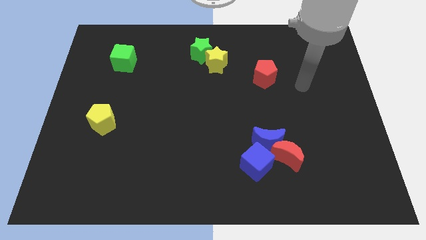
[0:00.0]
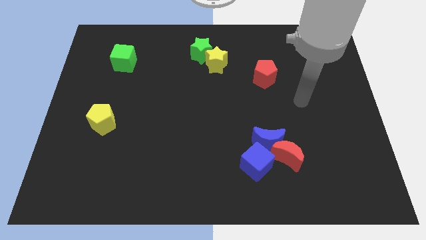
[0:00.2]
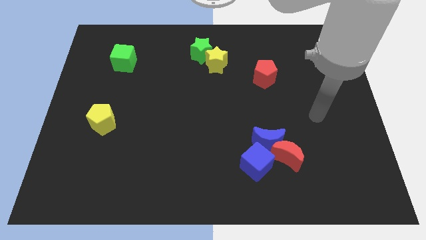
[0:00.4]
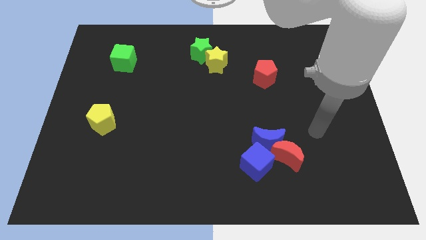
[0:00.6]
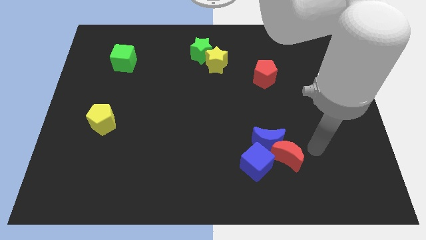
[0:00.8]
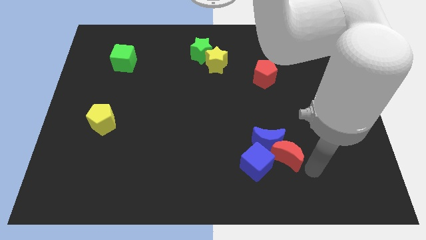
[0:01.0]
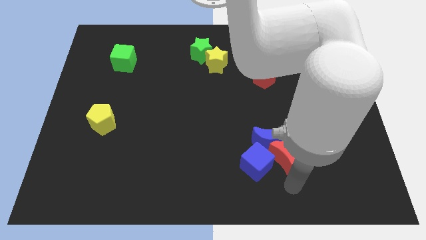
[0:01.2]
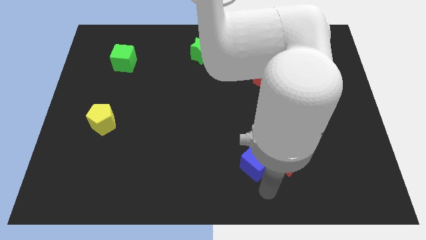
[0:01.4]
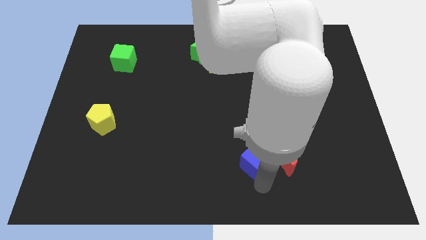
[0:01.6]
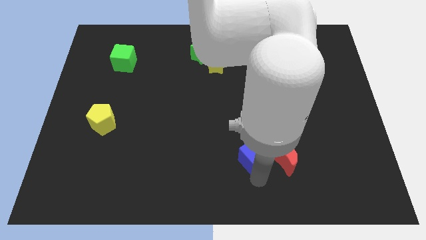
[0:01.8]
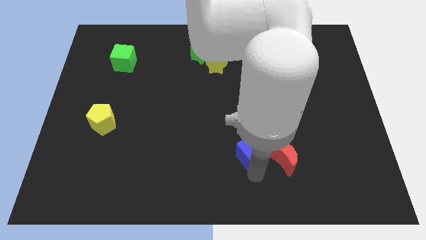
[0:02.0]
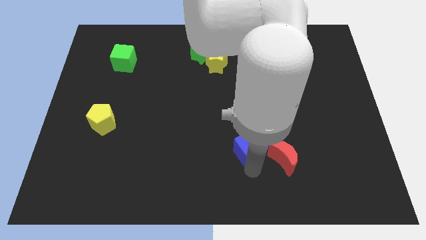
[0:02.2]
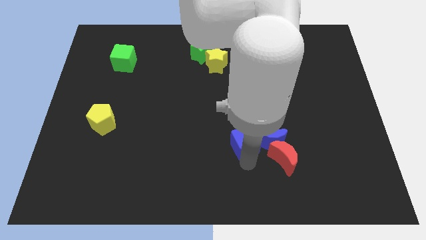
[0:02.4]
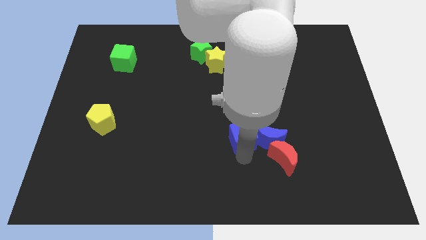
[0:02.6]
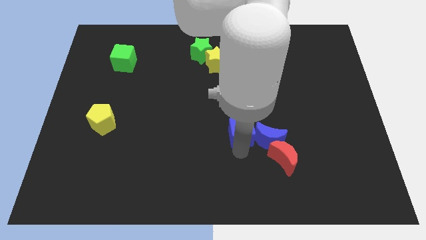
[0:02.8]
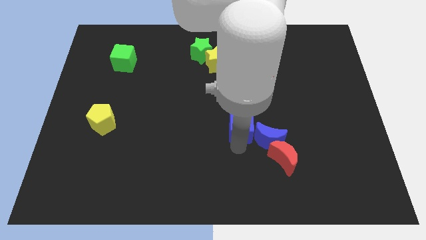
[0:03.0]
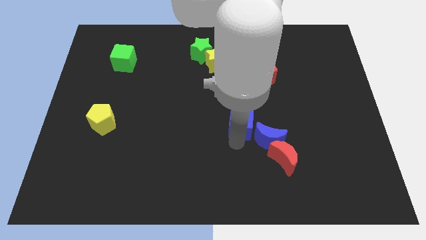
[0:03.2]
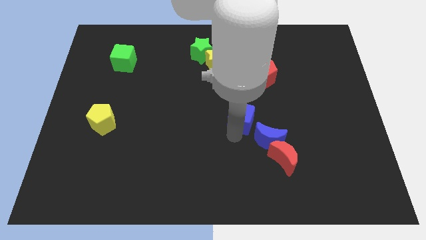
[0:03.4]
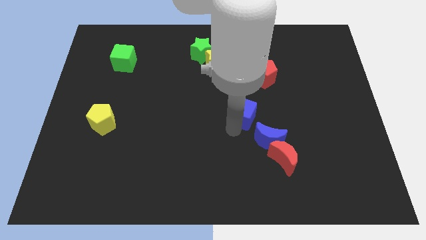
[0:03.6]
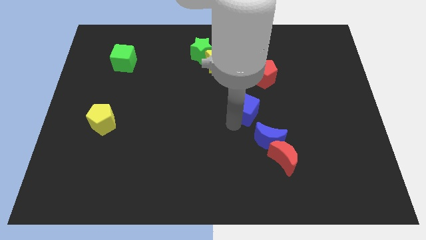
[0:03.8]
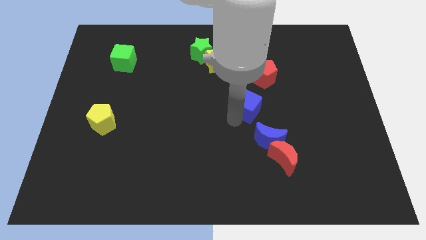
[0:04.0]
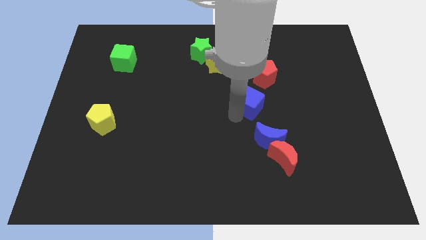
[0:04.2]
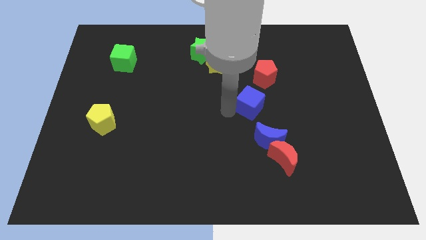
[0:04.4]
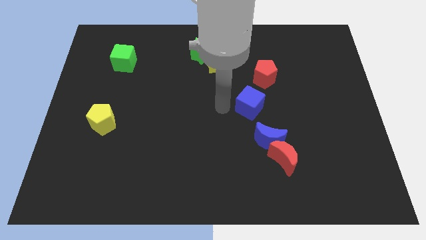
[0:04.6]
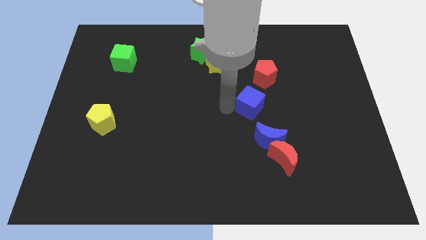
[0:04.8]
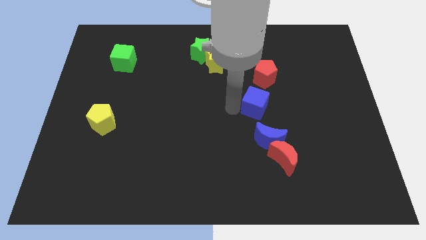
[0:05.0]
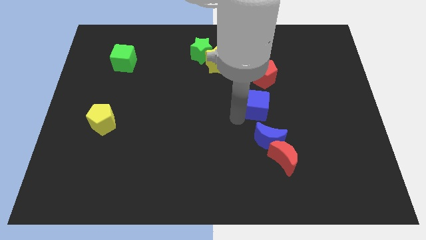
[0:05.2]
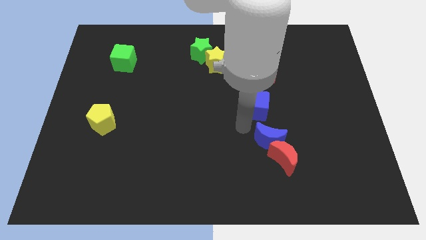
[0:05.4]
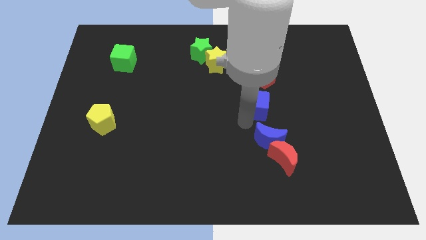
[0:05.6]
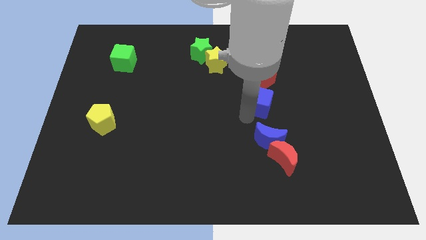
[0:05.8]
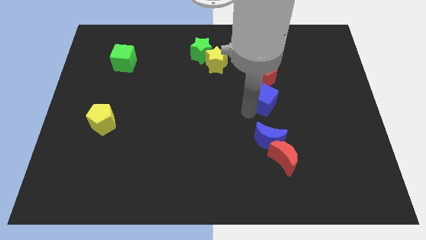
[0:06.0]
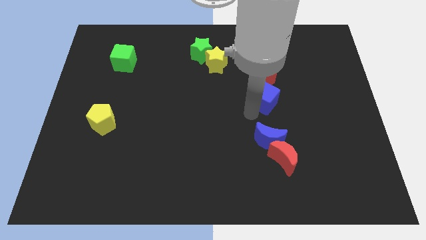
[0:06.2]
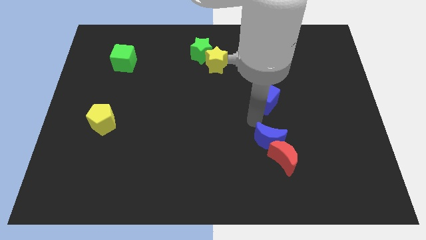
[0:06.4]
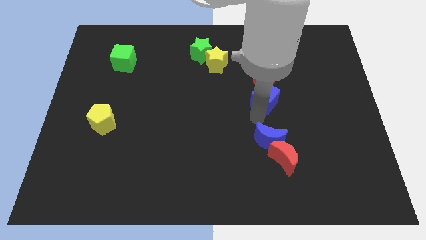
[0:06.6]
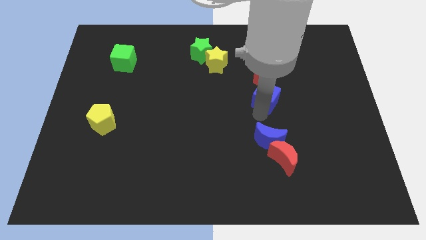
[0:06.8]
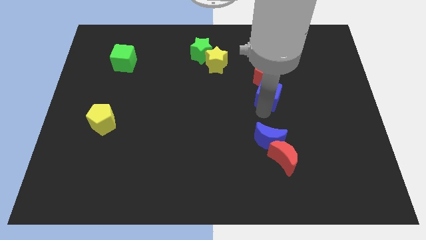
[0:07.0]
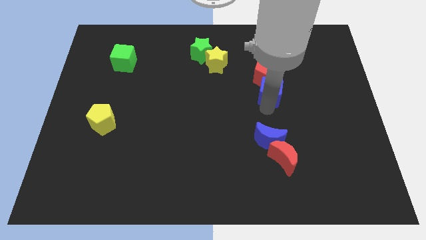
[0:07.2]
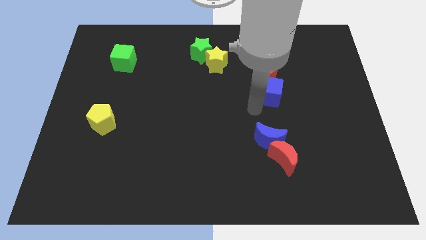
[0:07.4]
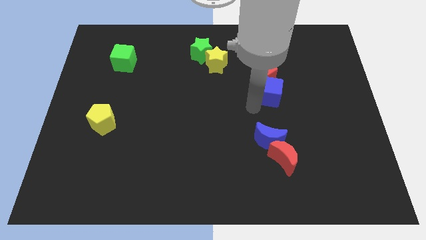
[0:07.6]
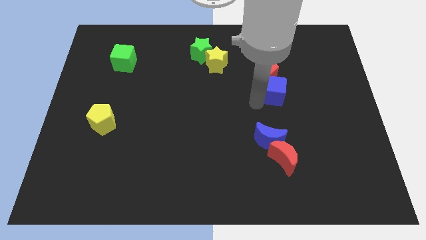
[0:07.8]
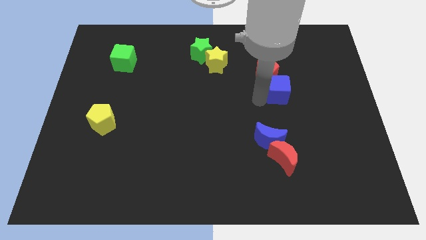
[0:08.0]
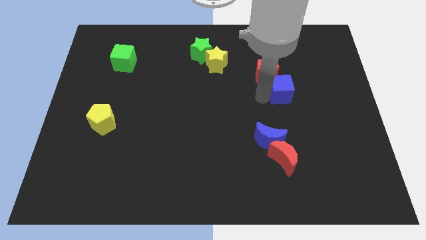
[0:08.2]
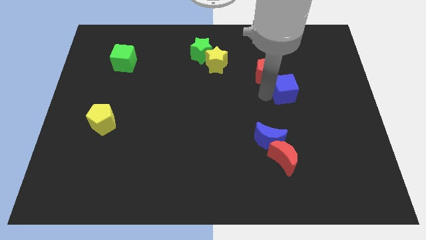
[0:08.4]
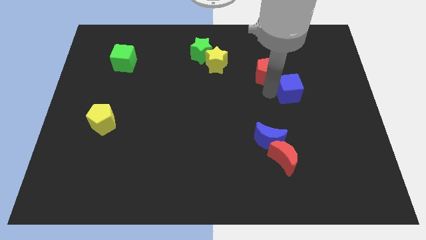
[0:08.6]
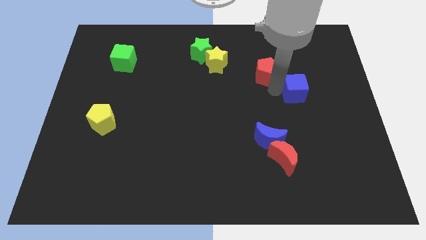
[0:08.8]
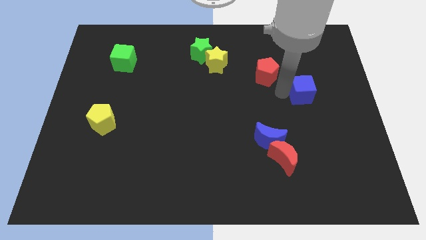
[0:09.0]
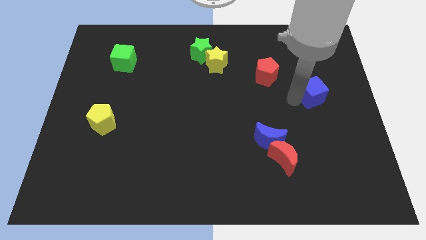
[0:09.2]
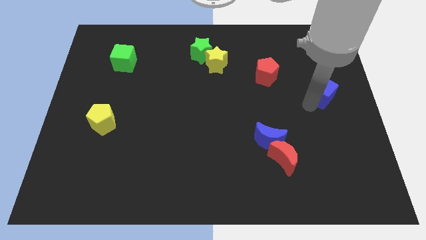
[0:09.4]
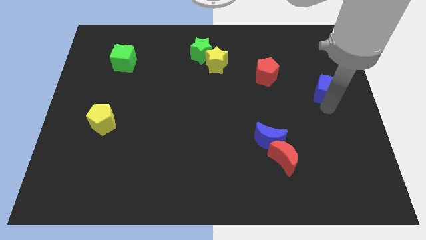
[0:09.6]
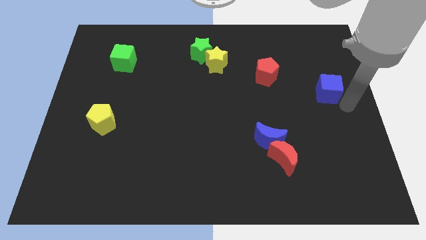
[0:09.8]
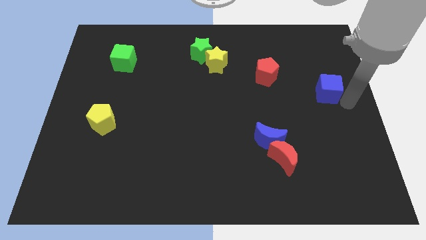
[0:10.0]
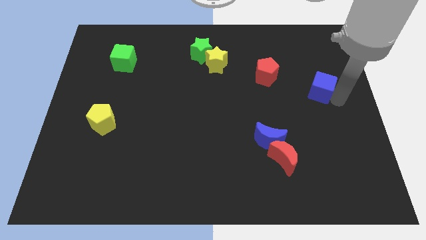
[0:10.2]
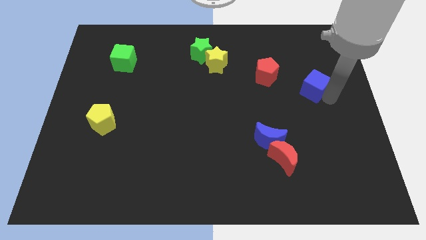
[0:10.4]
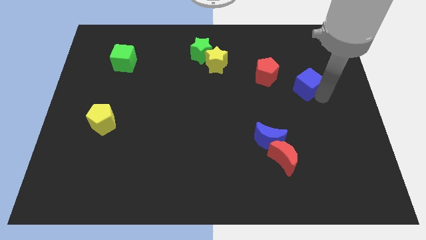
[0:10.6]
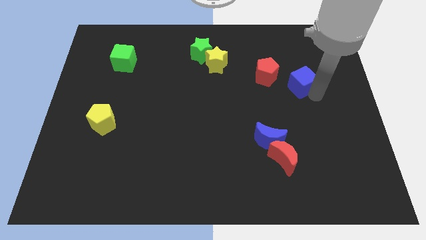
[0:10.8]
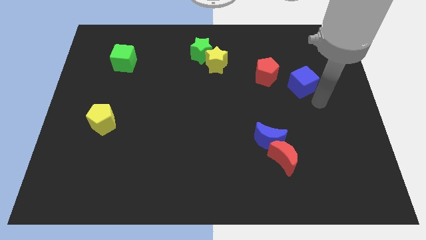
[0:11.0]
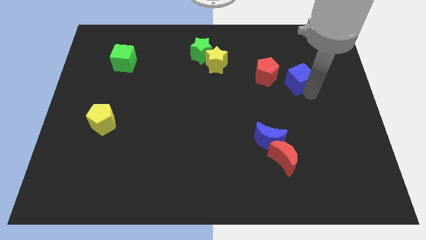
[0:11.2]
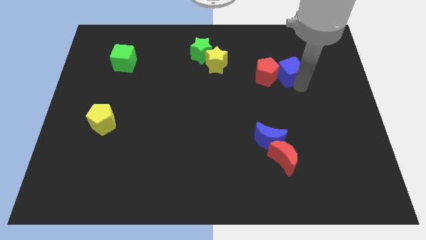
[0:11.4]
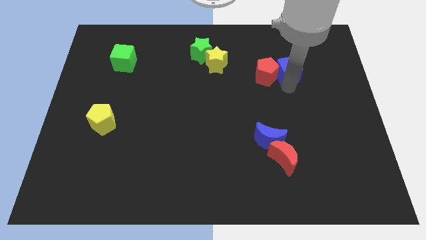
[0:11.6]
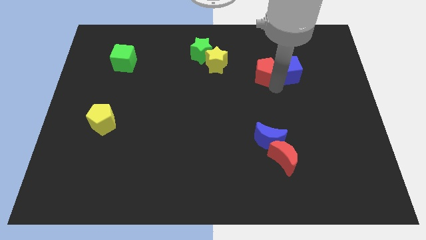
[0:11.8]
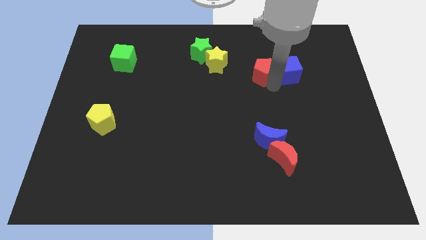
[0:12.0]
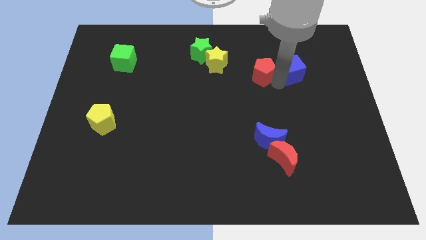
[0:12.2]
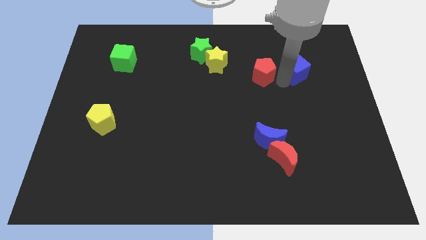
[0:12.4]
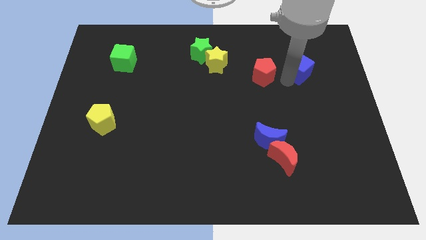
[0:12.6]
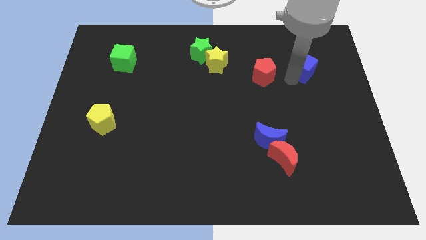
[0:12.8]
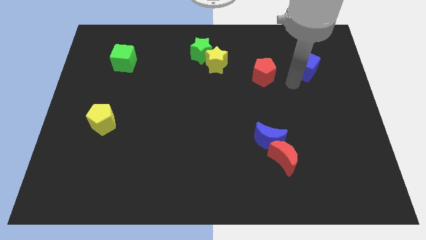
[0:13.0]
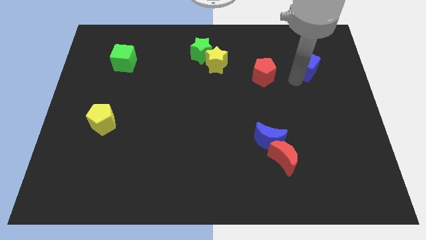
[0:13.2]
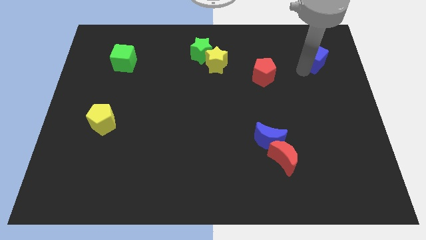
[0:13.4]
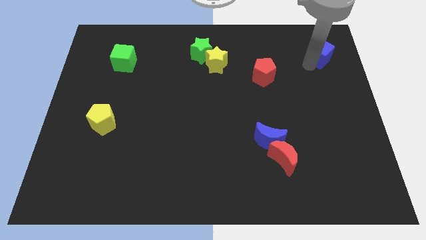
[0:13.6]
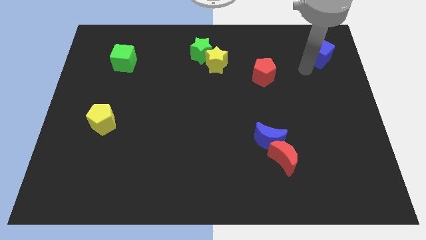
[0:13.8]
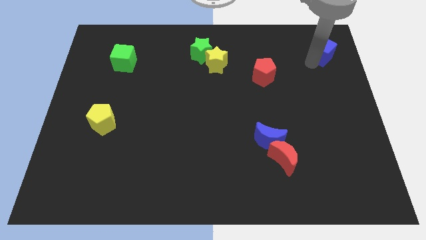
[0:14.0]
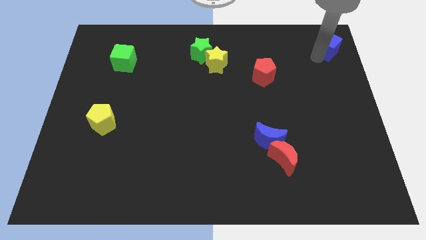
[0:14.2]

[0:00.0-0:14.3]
push the blue cube to the upper right corner
